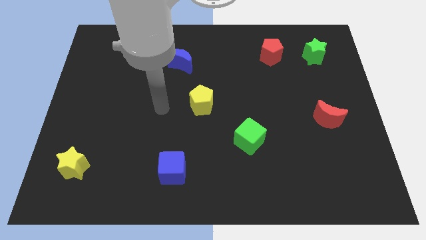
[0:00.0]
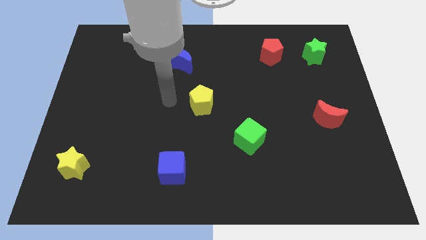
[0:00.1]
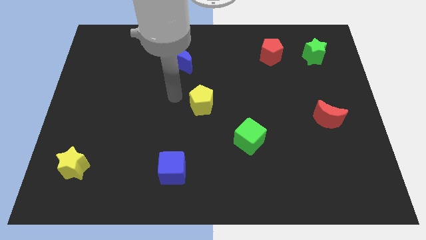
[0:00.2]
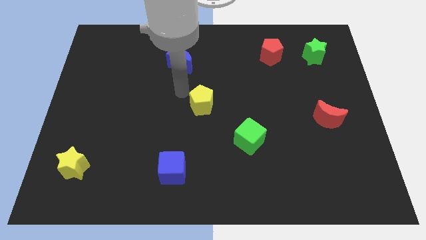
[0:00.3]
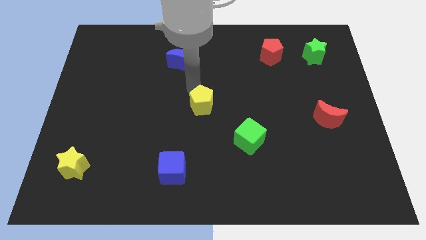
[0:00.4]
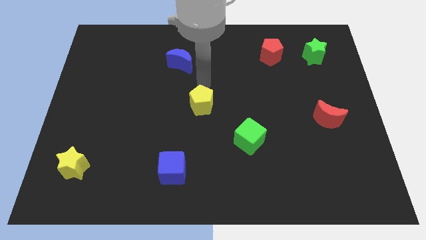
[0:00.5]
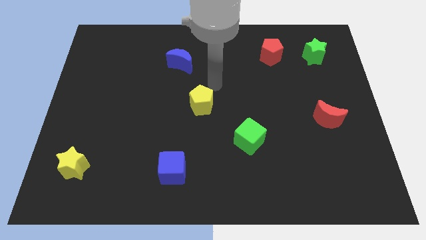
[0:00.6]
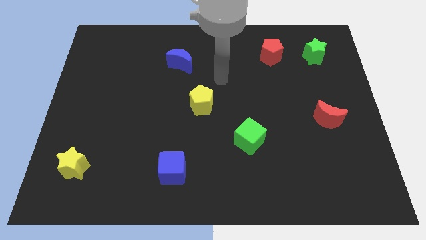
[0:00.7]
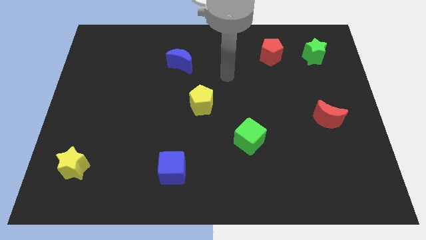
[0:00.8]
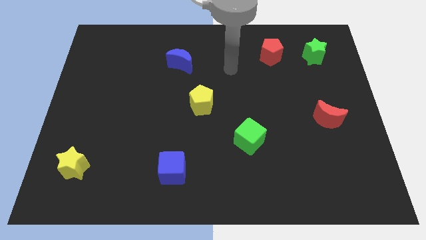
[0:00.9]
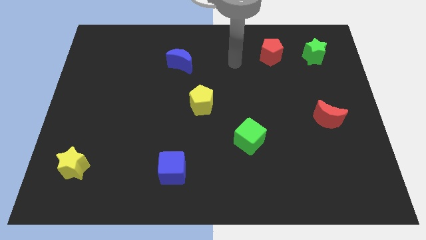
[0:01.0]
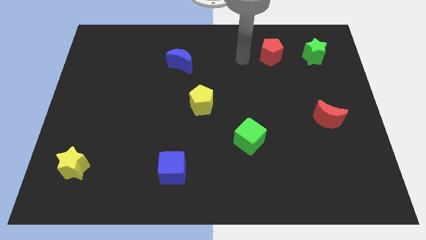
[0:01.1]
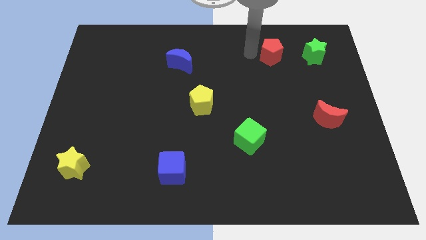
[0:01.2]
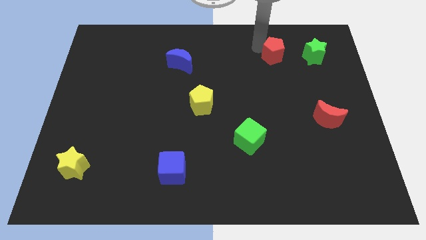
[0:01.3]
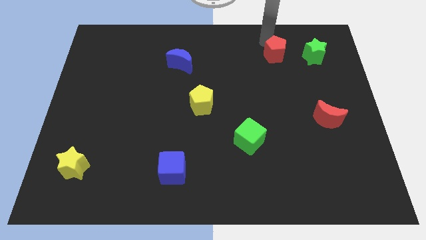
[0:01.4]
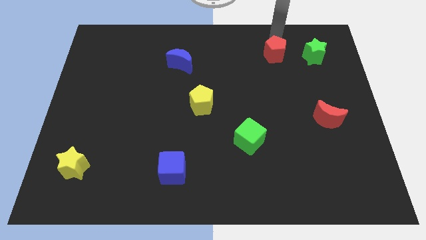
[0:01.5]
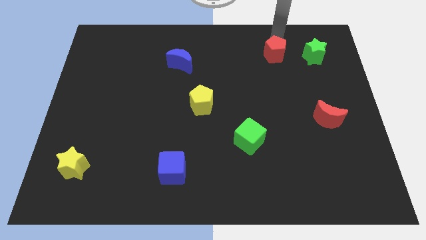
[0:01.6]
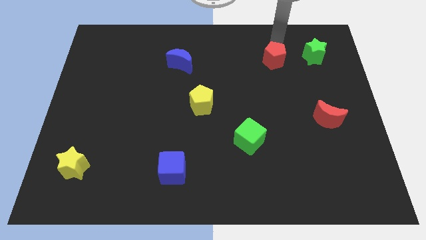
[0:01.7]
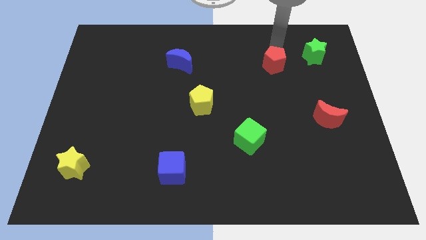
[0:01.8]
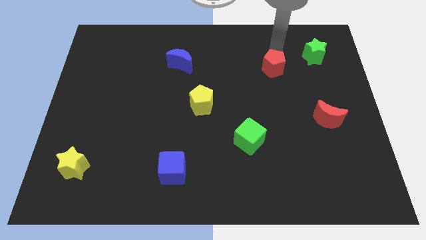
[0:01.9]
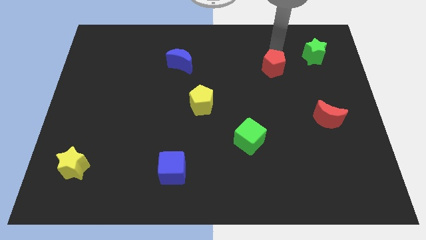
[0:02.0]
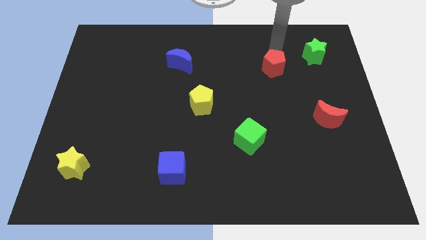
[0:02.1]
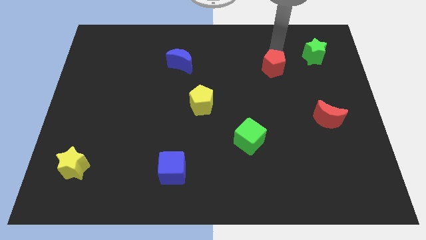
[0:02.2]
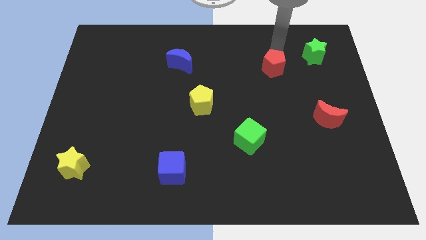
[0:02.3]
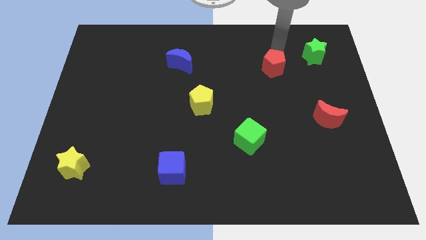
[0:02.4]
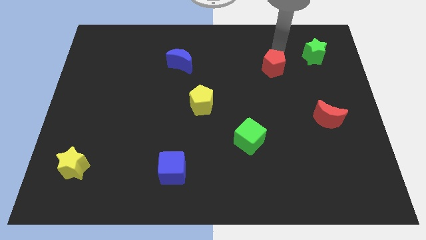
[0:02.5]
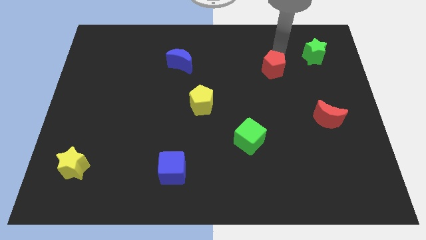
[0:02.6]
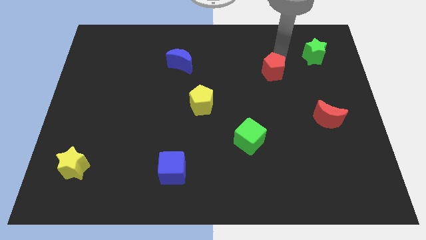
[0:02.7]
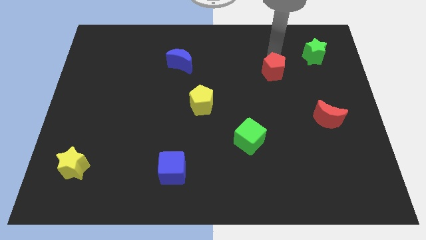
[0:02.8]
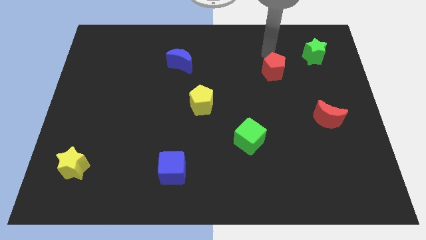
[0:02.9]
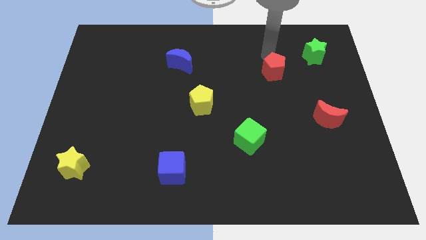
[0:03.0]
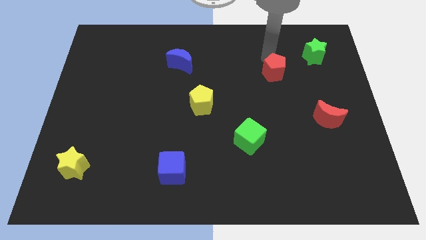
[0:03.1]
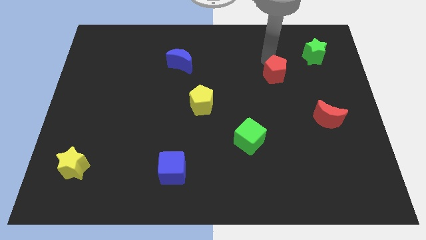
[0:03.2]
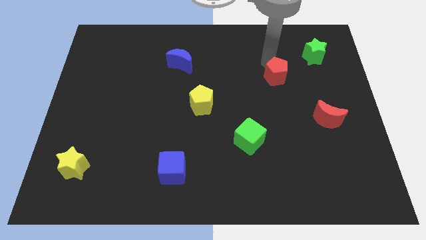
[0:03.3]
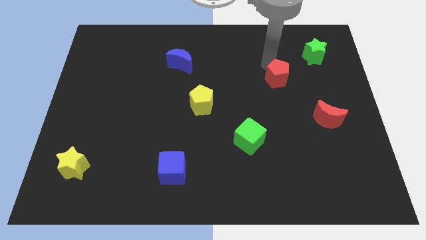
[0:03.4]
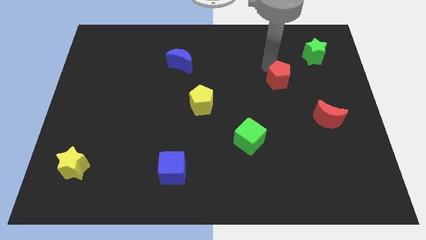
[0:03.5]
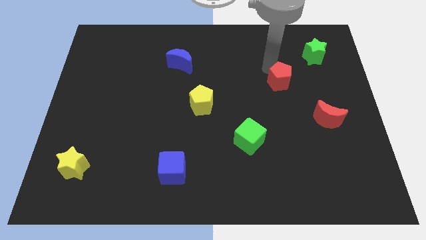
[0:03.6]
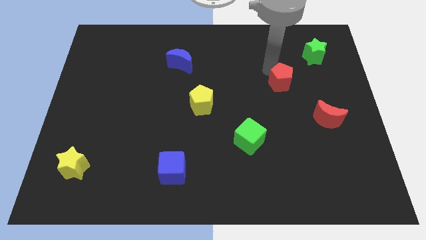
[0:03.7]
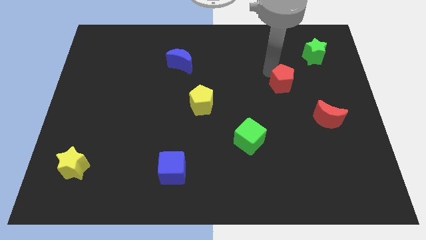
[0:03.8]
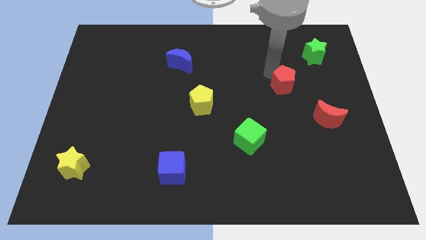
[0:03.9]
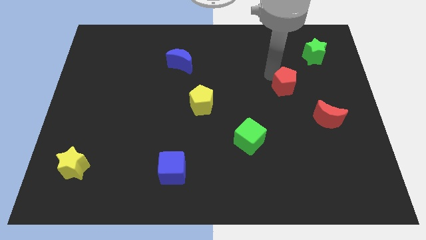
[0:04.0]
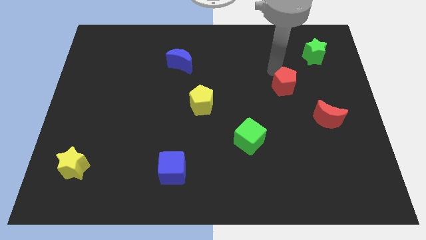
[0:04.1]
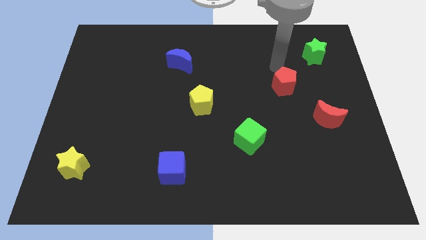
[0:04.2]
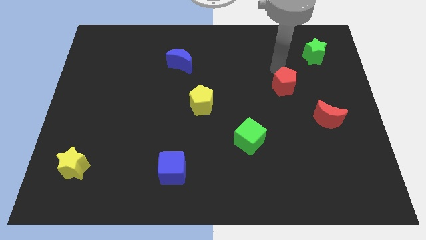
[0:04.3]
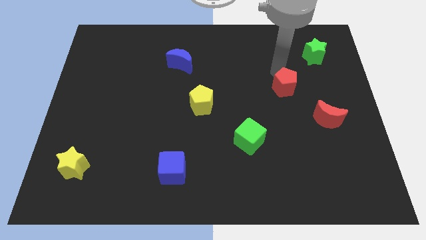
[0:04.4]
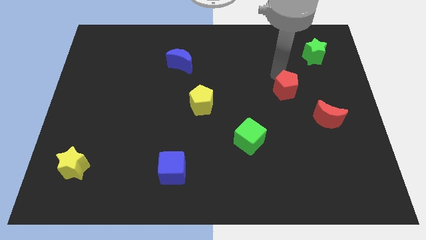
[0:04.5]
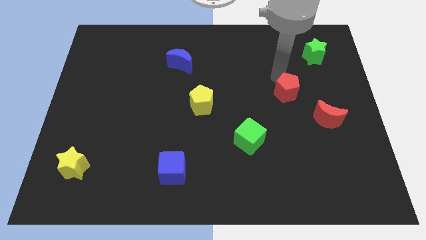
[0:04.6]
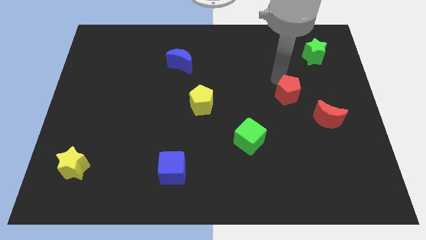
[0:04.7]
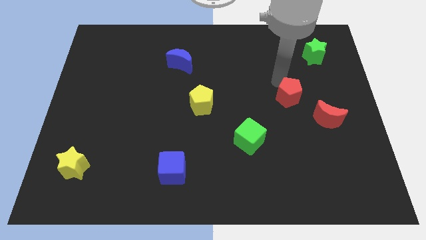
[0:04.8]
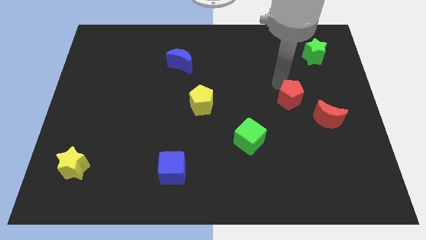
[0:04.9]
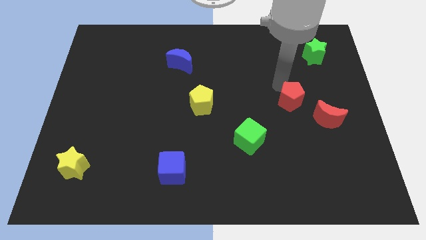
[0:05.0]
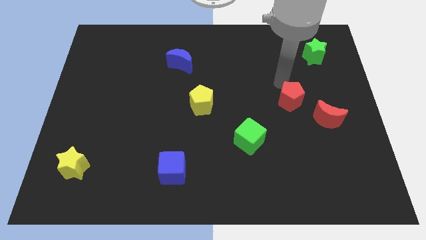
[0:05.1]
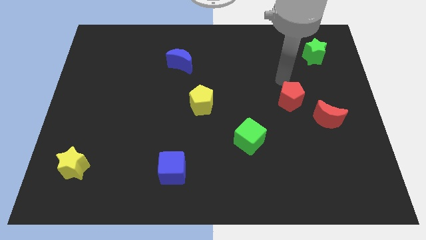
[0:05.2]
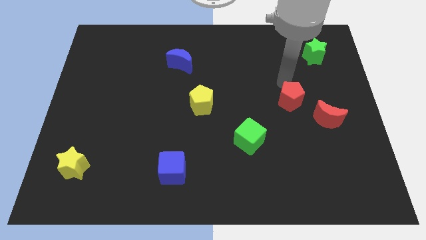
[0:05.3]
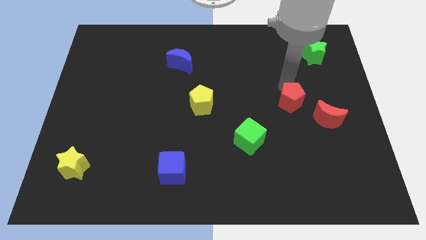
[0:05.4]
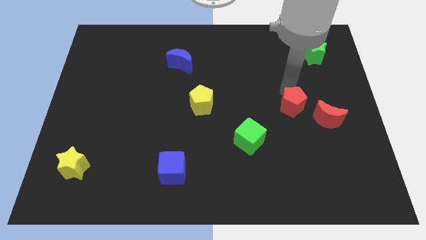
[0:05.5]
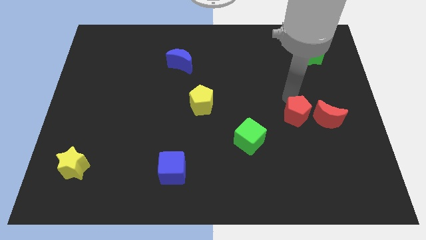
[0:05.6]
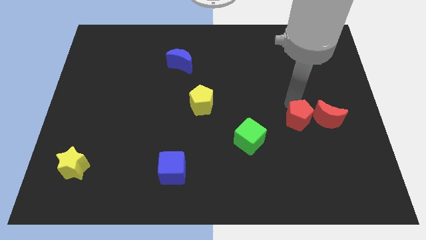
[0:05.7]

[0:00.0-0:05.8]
move the red pentagon to the bottom left of the red moon
